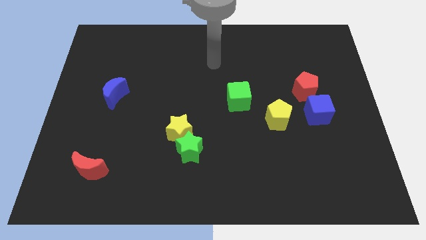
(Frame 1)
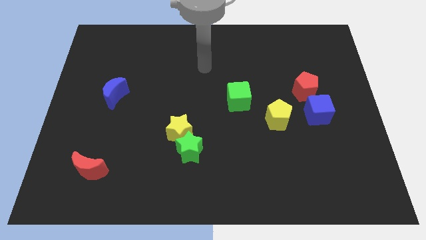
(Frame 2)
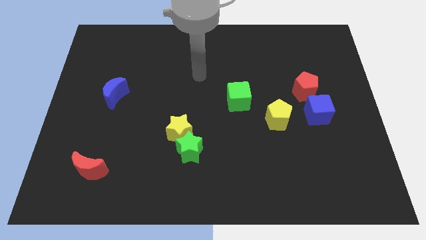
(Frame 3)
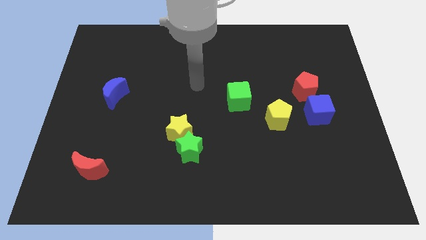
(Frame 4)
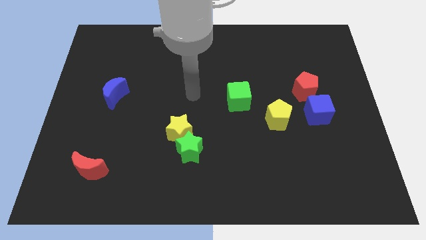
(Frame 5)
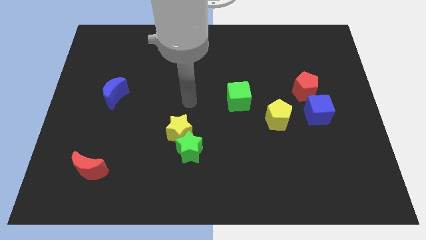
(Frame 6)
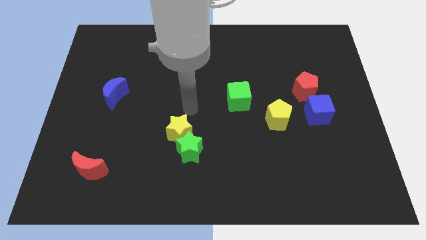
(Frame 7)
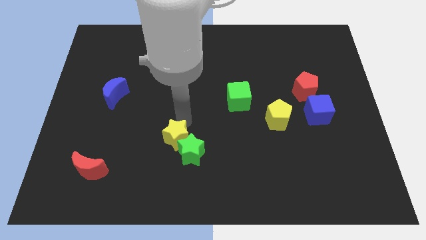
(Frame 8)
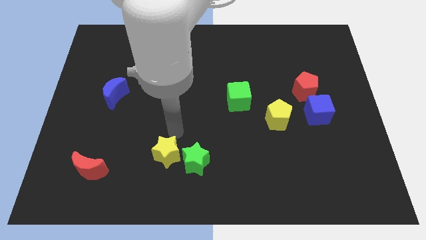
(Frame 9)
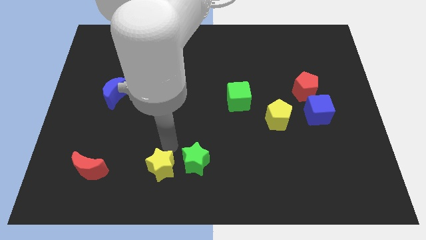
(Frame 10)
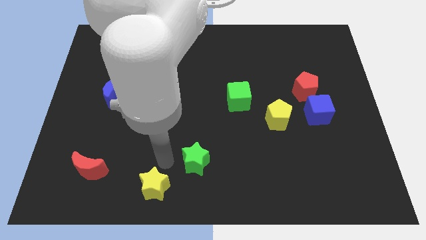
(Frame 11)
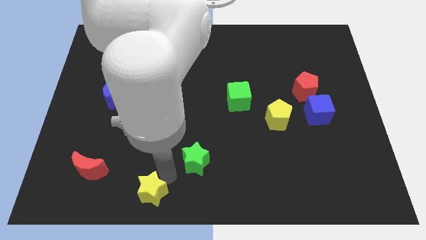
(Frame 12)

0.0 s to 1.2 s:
pull the green star apart from the yellow star

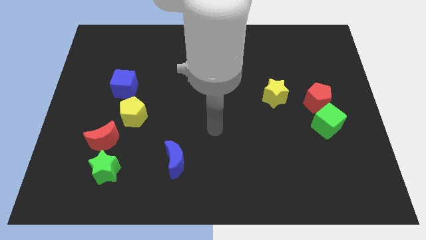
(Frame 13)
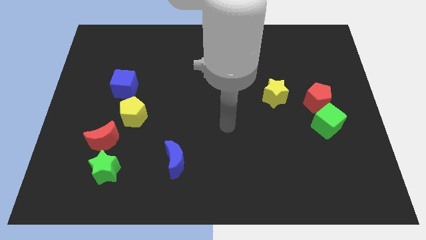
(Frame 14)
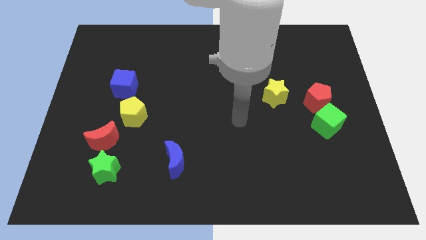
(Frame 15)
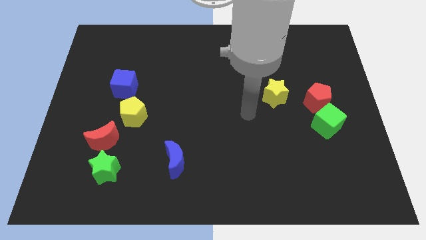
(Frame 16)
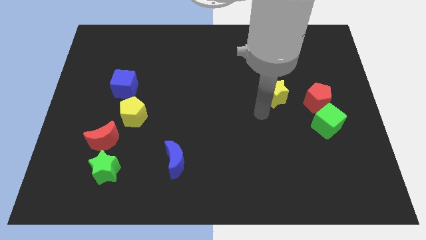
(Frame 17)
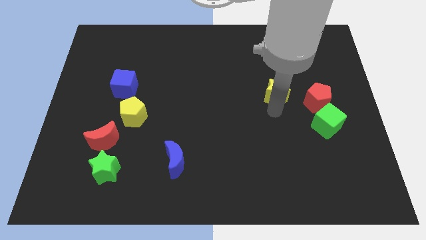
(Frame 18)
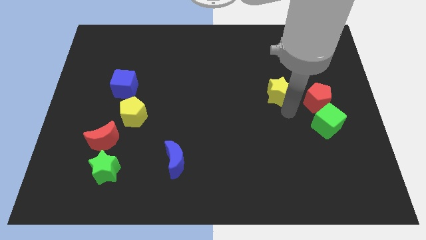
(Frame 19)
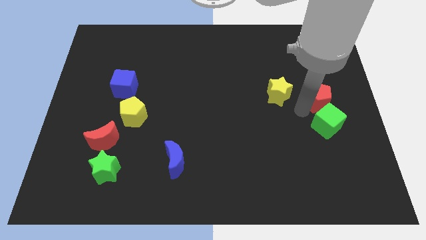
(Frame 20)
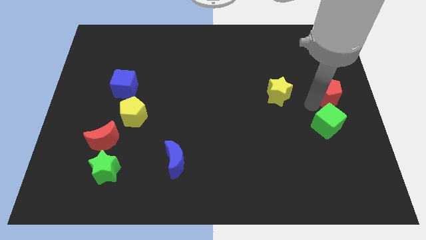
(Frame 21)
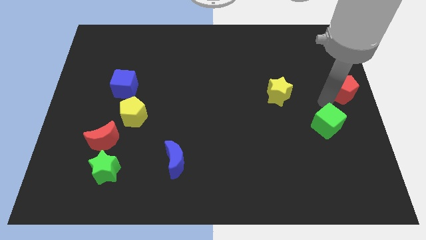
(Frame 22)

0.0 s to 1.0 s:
separate the green cube from the red pentagon

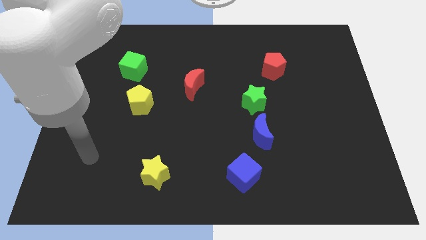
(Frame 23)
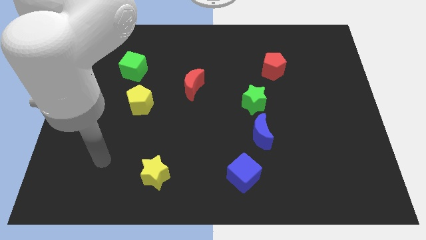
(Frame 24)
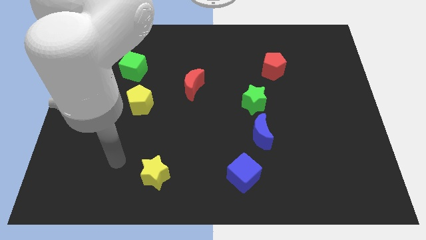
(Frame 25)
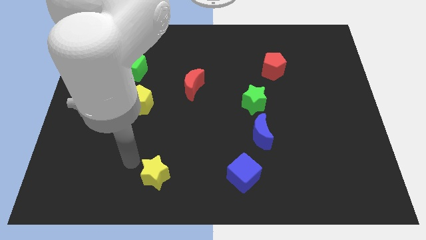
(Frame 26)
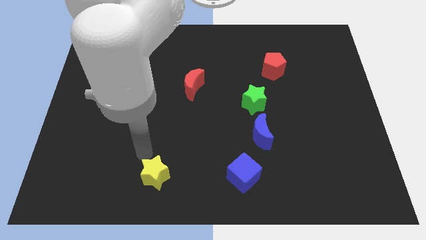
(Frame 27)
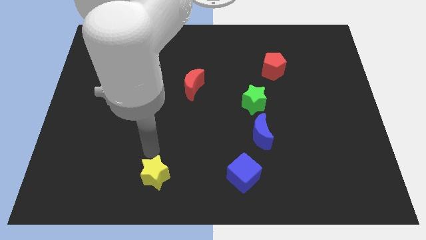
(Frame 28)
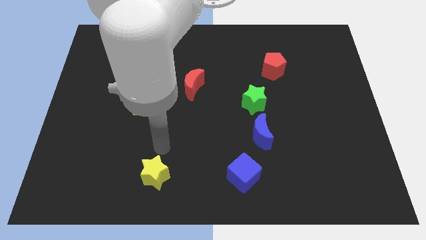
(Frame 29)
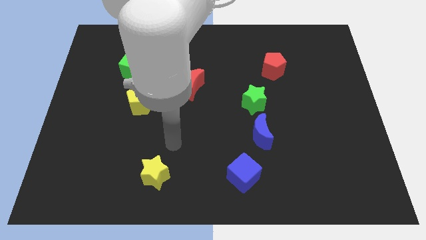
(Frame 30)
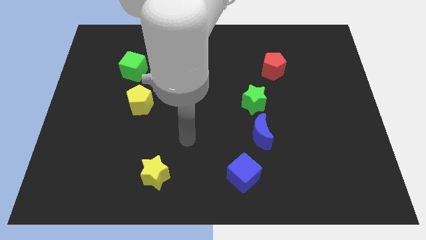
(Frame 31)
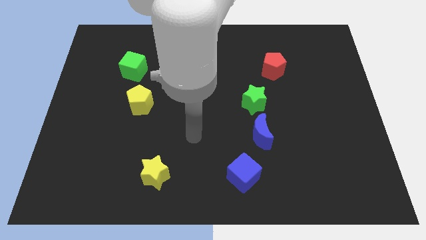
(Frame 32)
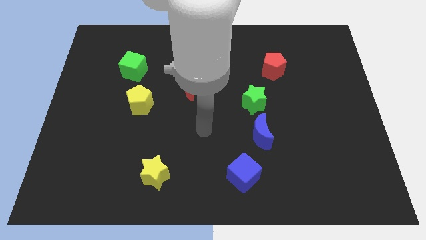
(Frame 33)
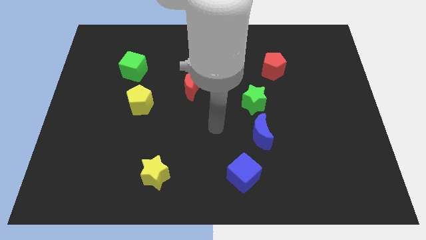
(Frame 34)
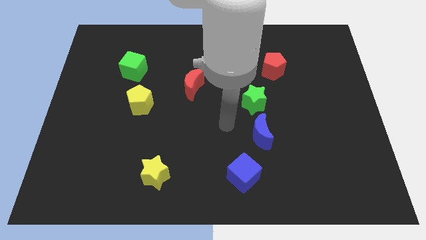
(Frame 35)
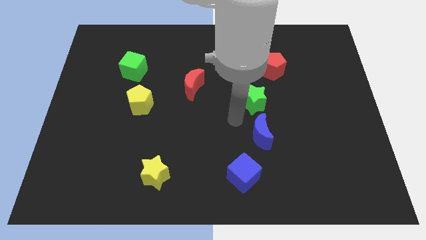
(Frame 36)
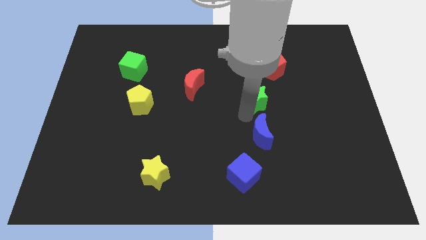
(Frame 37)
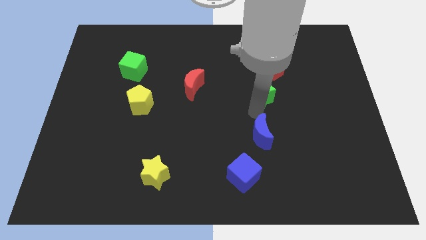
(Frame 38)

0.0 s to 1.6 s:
move the blue moon away from the green star

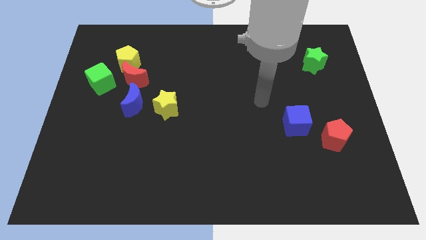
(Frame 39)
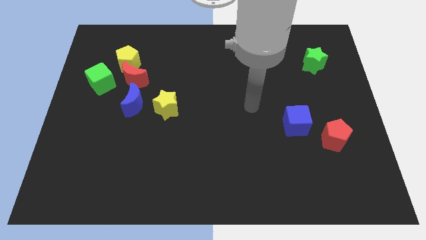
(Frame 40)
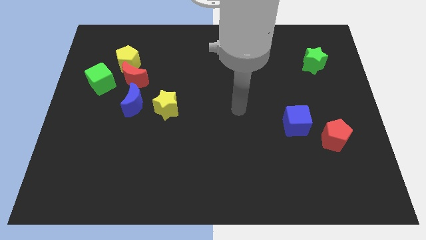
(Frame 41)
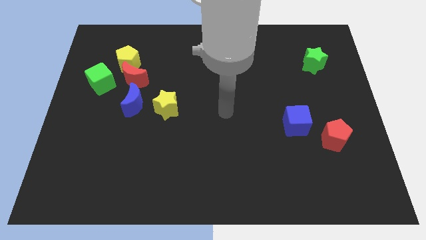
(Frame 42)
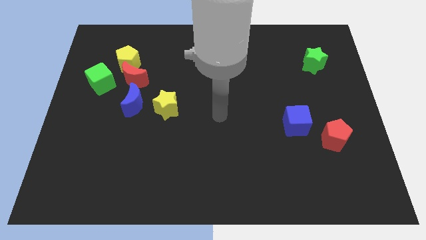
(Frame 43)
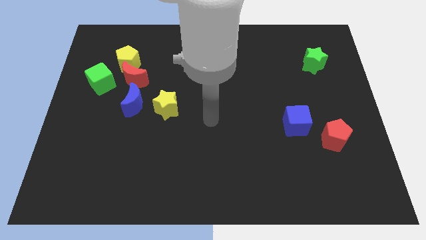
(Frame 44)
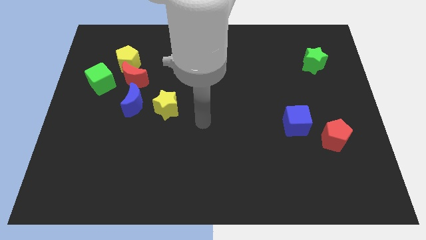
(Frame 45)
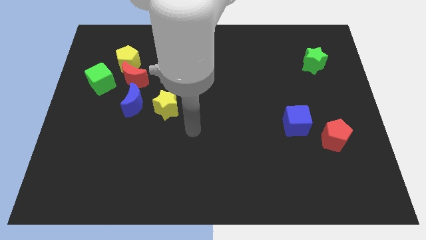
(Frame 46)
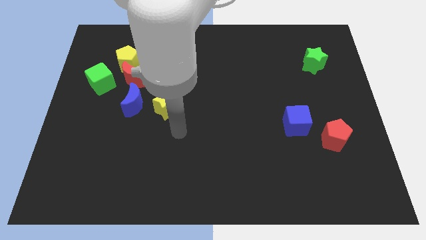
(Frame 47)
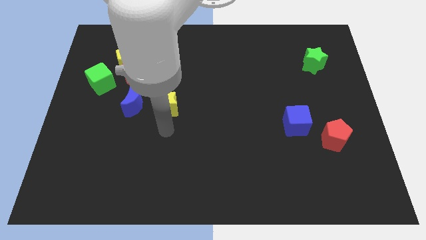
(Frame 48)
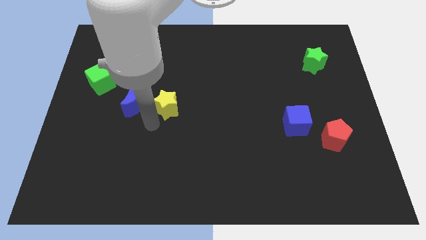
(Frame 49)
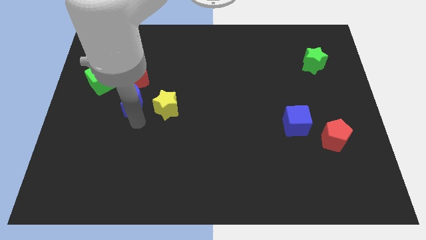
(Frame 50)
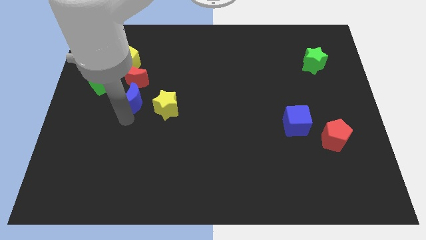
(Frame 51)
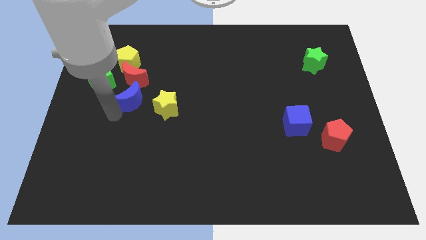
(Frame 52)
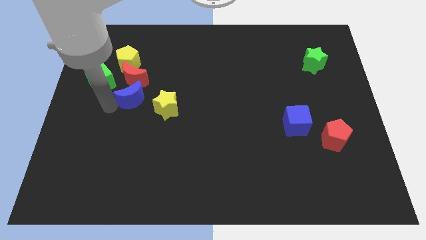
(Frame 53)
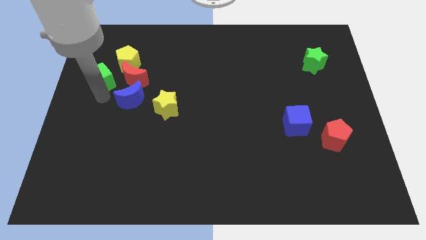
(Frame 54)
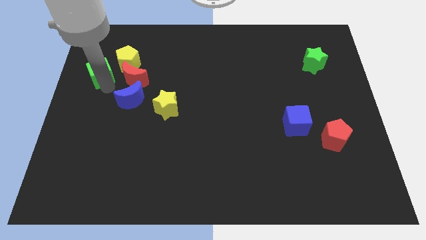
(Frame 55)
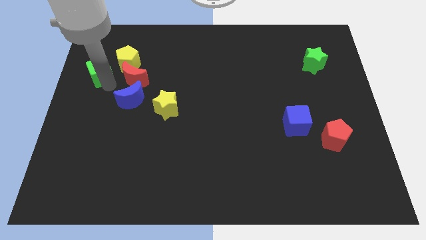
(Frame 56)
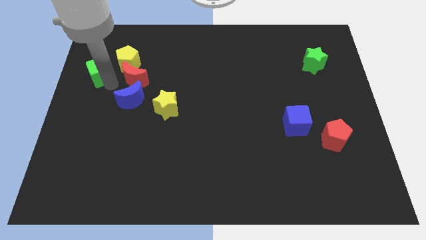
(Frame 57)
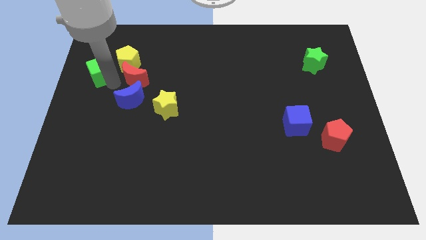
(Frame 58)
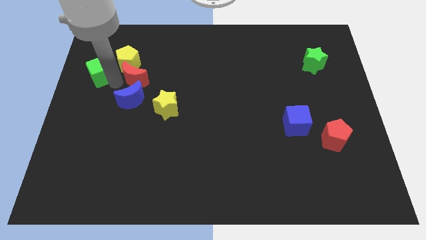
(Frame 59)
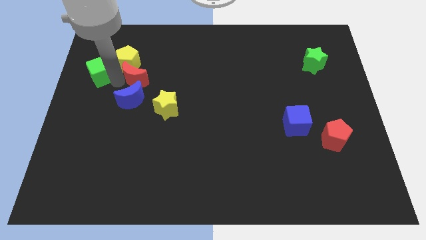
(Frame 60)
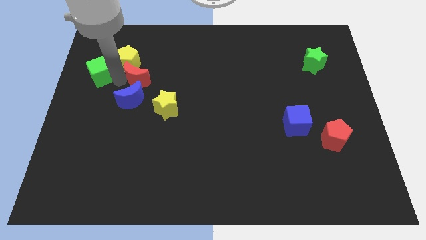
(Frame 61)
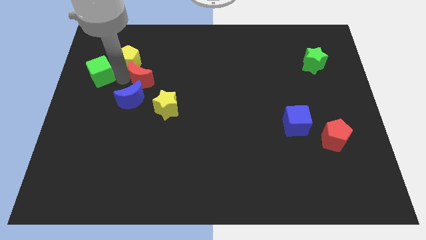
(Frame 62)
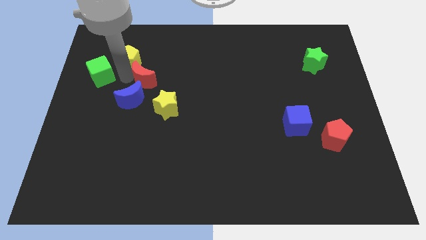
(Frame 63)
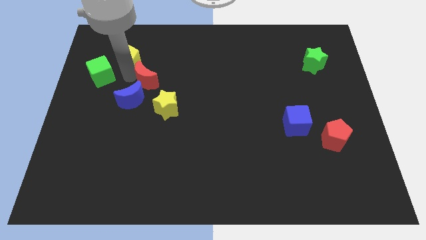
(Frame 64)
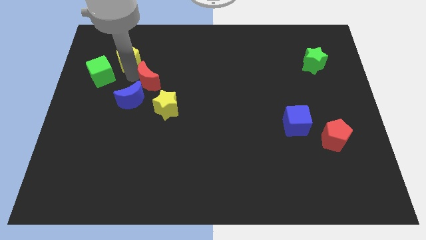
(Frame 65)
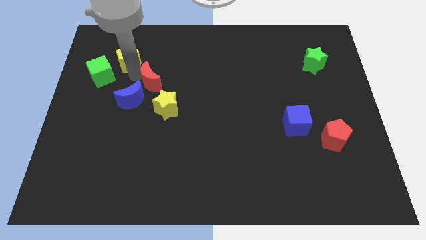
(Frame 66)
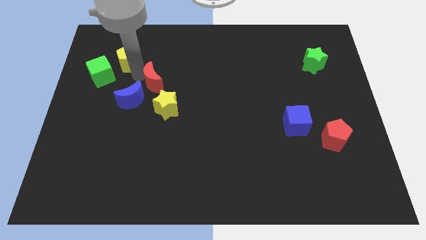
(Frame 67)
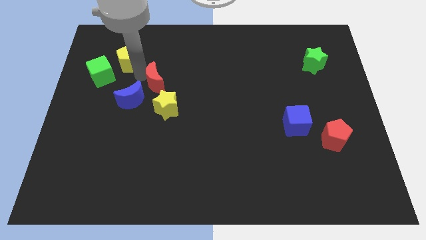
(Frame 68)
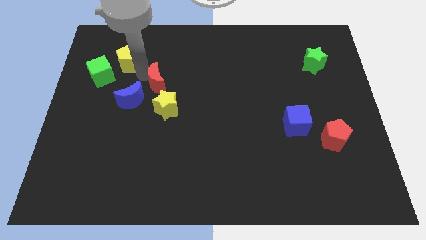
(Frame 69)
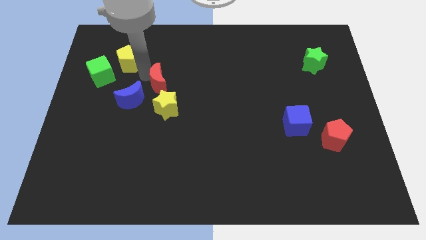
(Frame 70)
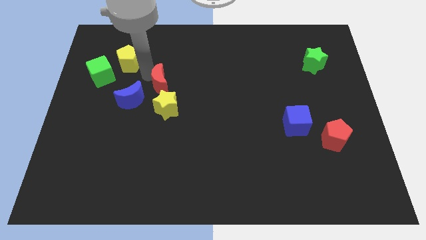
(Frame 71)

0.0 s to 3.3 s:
pull the red moon apart from the group

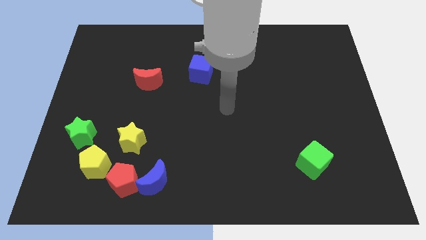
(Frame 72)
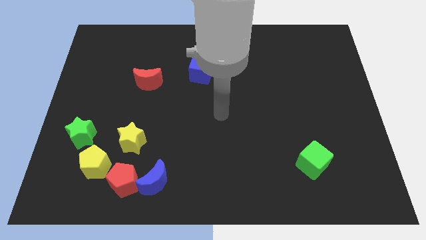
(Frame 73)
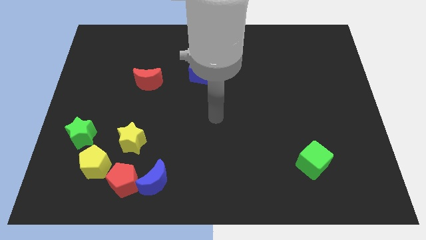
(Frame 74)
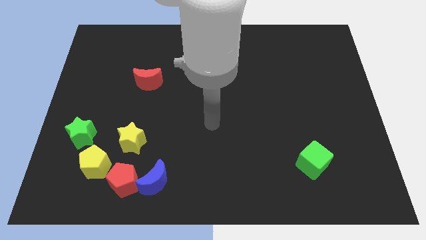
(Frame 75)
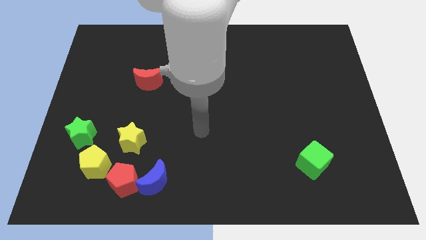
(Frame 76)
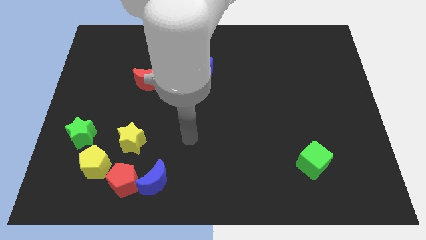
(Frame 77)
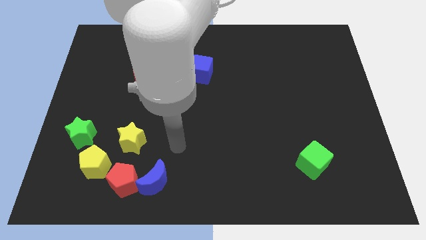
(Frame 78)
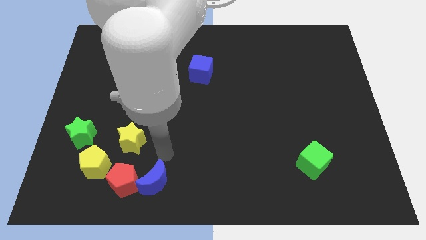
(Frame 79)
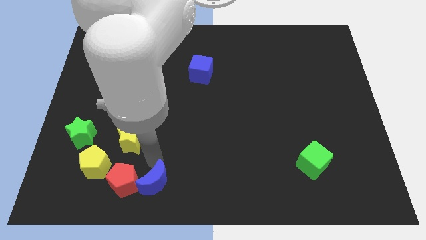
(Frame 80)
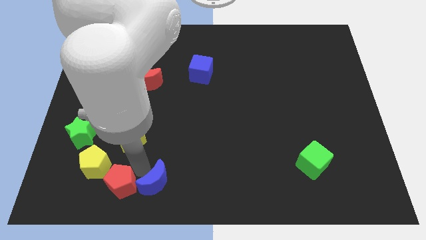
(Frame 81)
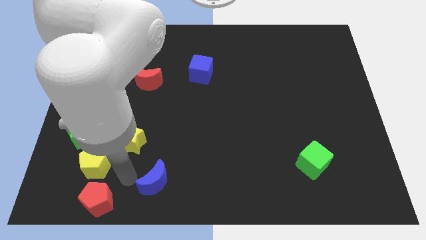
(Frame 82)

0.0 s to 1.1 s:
pull the blue moon apart from the red pentagon

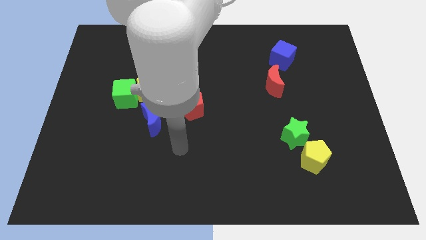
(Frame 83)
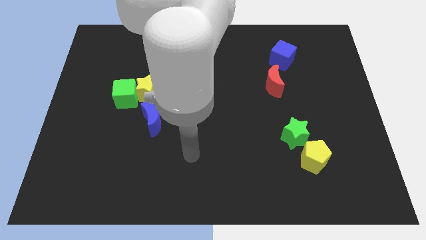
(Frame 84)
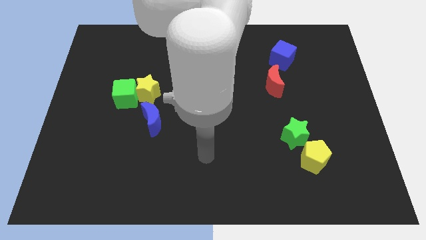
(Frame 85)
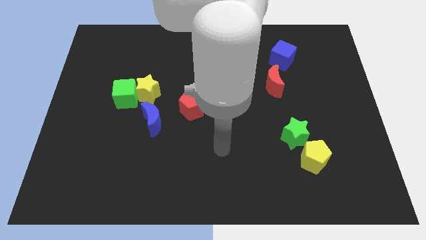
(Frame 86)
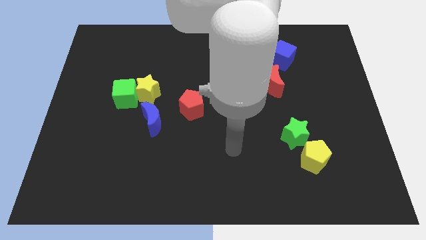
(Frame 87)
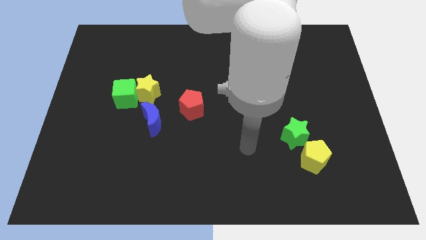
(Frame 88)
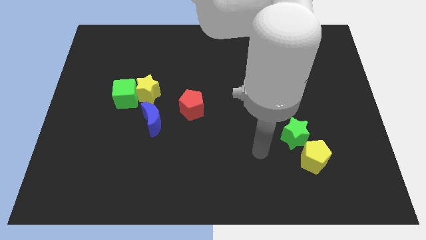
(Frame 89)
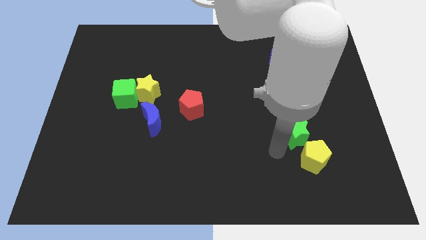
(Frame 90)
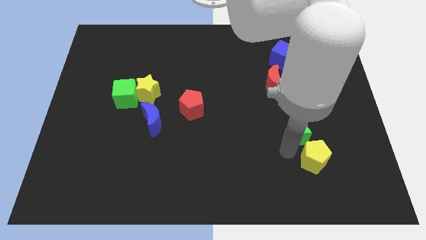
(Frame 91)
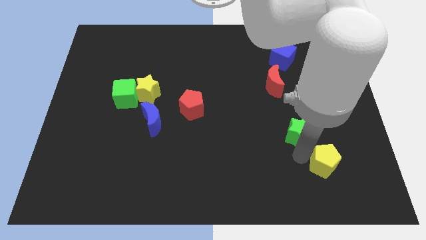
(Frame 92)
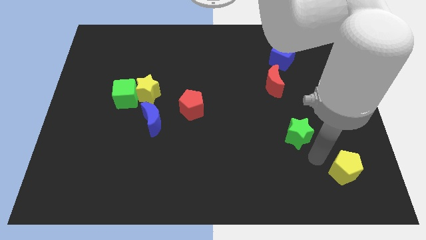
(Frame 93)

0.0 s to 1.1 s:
separate the green star from the yellow pentagon

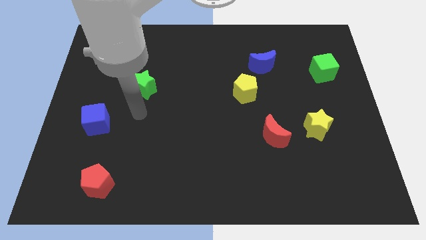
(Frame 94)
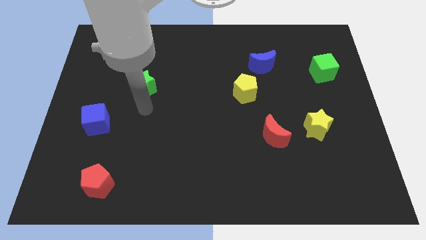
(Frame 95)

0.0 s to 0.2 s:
move the red moon away from the yellow star
